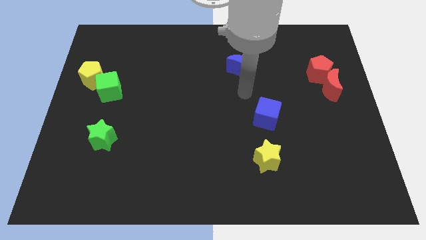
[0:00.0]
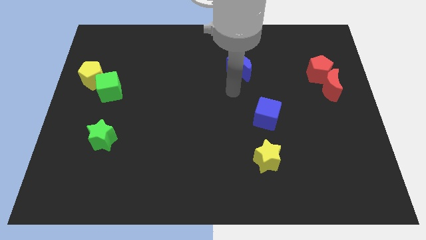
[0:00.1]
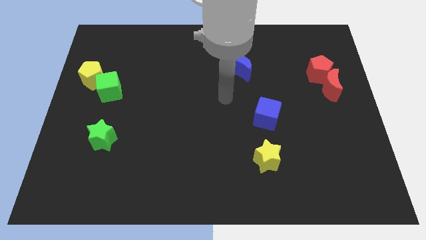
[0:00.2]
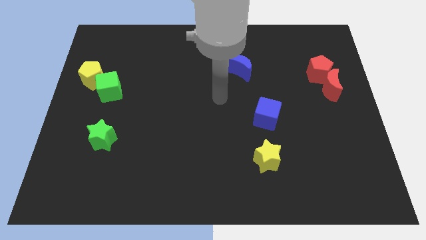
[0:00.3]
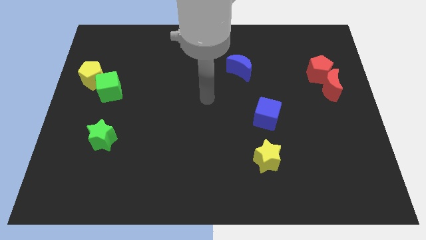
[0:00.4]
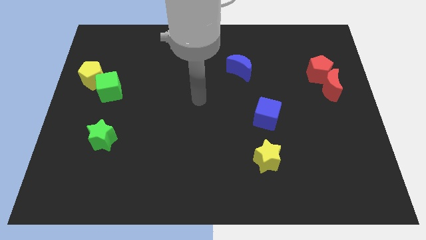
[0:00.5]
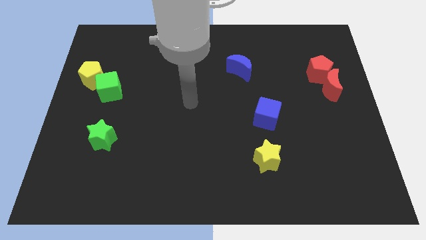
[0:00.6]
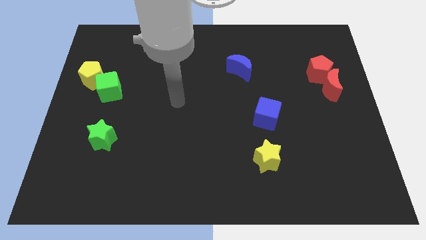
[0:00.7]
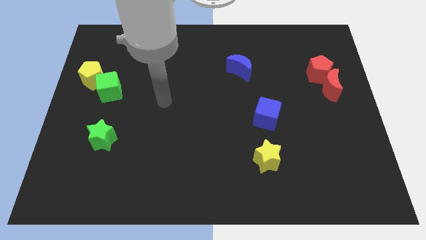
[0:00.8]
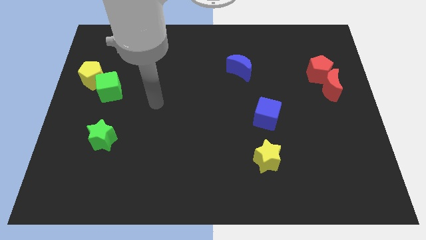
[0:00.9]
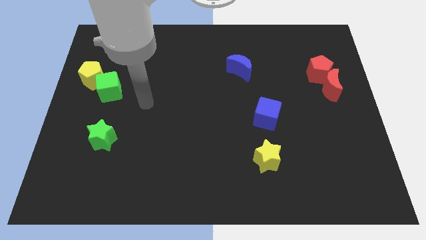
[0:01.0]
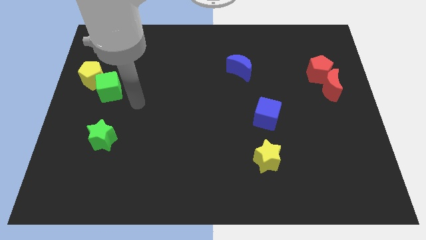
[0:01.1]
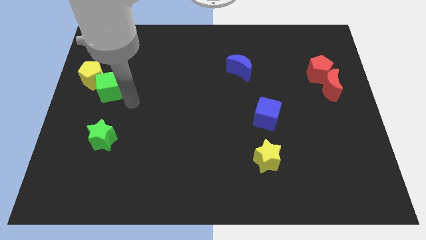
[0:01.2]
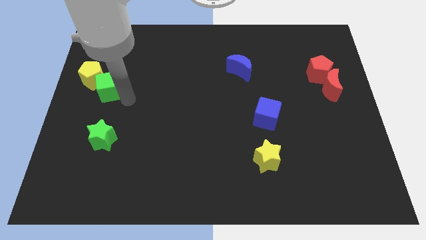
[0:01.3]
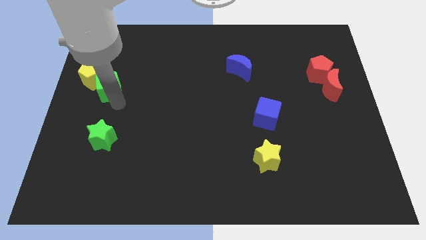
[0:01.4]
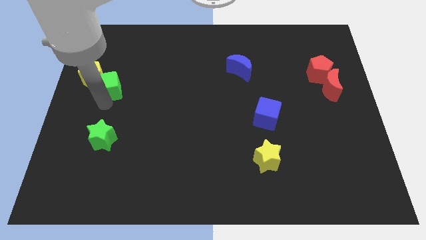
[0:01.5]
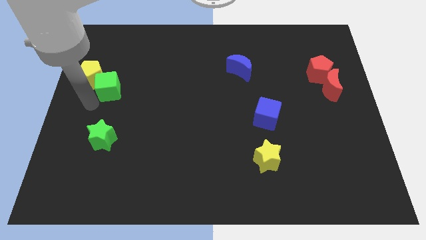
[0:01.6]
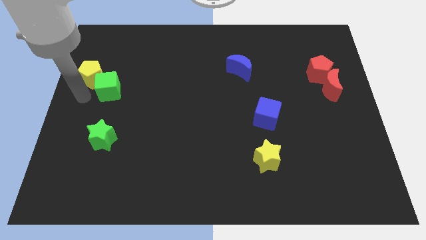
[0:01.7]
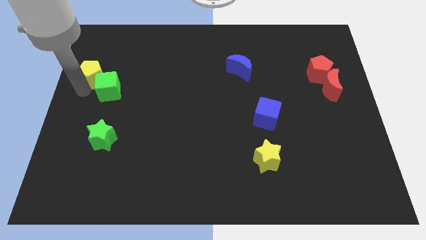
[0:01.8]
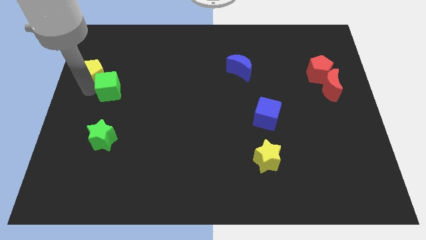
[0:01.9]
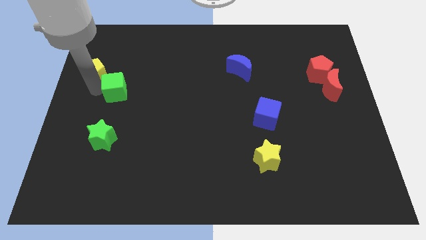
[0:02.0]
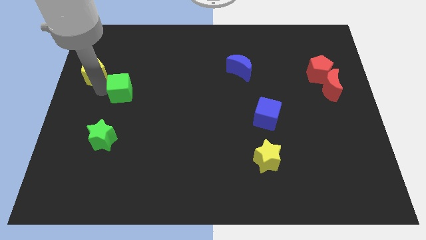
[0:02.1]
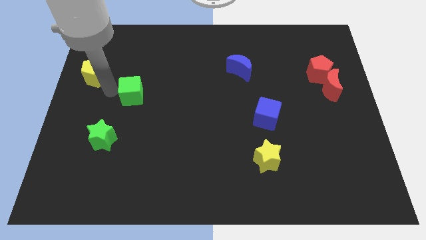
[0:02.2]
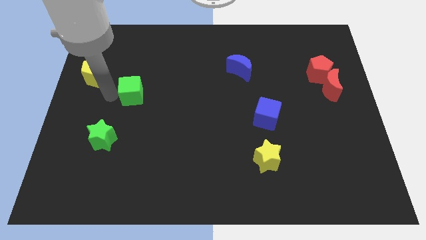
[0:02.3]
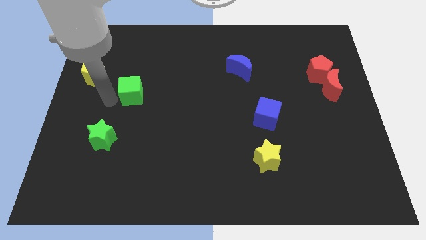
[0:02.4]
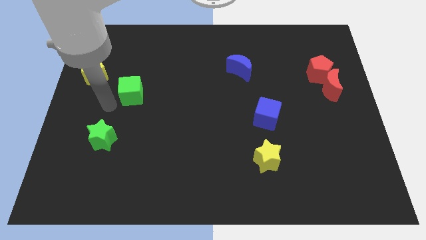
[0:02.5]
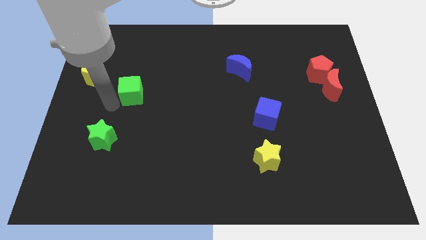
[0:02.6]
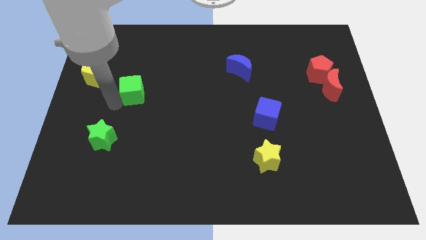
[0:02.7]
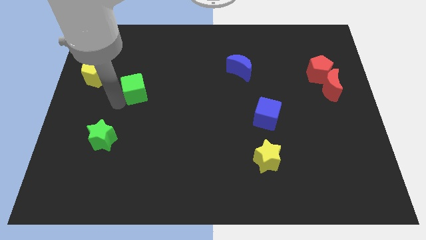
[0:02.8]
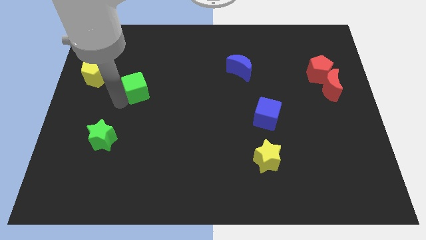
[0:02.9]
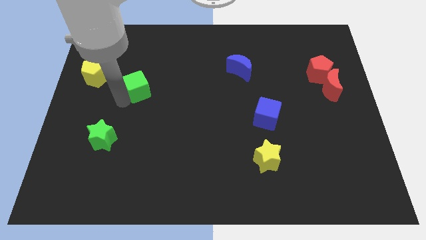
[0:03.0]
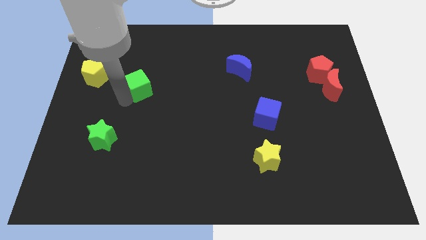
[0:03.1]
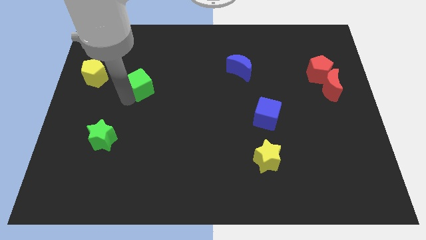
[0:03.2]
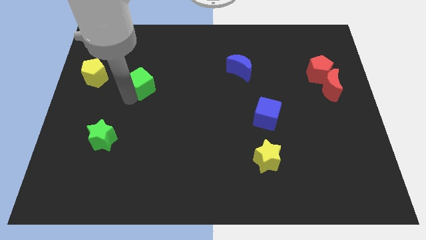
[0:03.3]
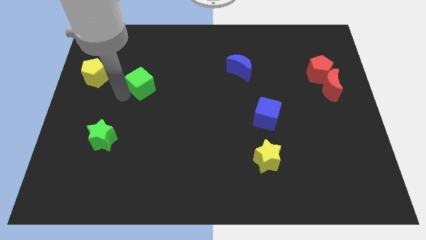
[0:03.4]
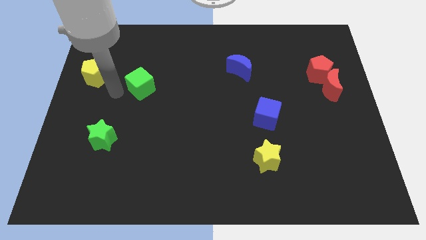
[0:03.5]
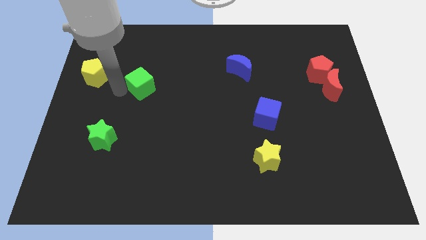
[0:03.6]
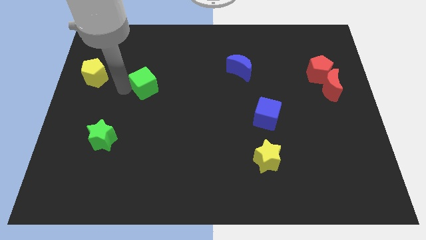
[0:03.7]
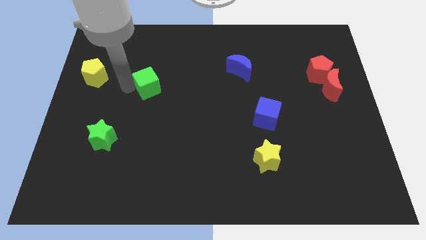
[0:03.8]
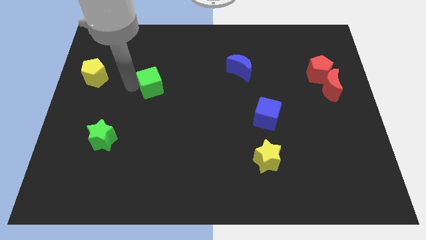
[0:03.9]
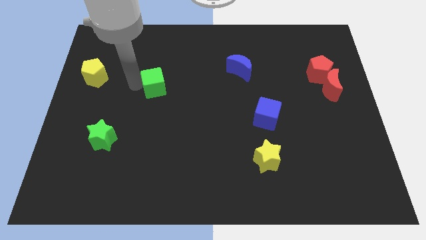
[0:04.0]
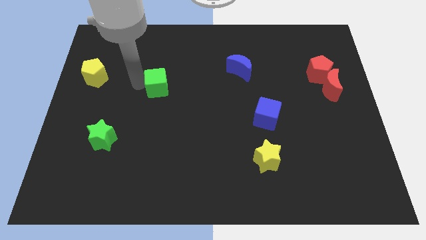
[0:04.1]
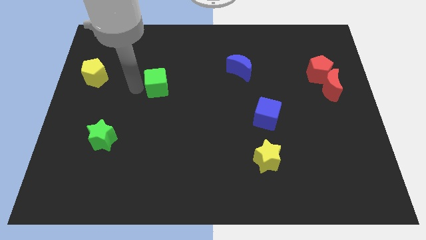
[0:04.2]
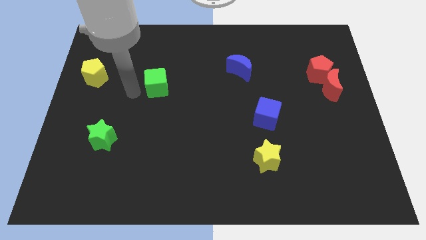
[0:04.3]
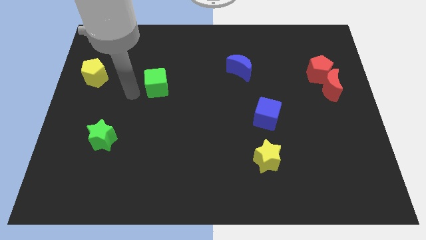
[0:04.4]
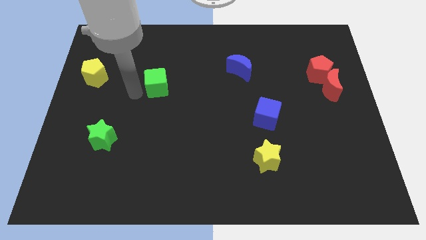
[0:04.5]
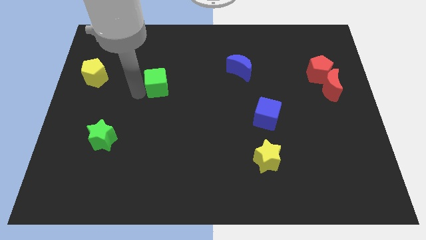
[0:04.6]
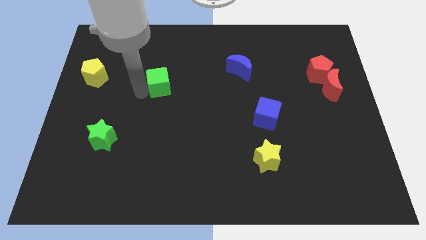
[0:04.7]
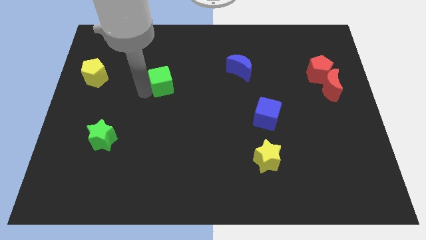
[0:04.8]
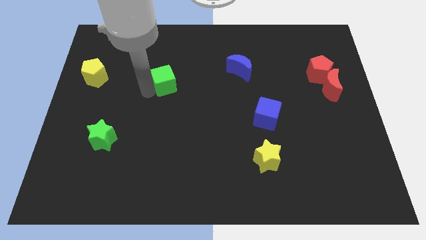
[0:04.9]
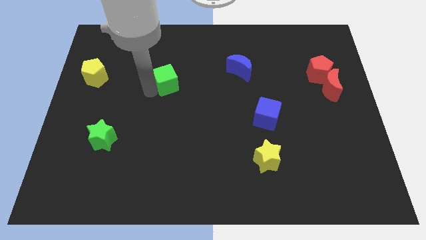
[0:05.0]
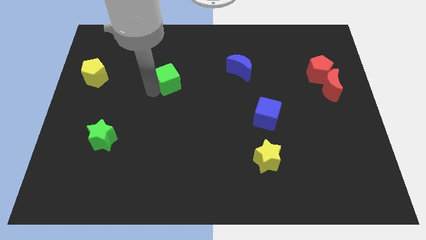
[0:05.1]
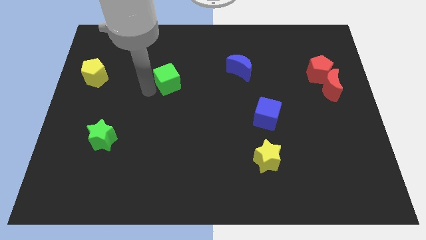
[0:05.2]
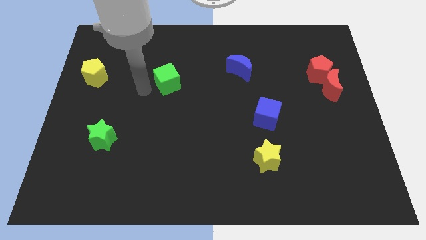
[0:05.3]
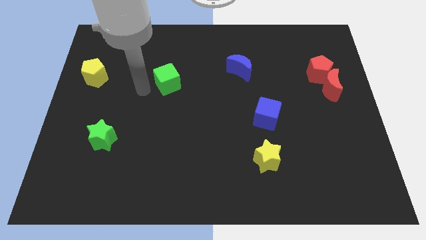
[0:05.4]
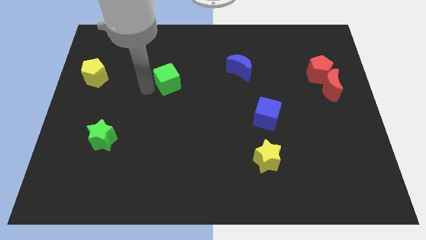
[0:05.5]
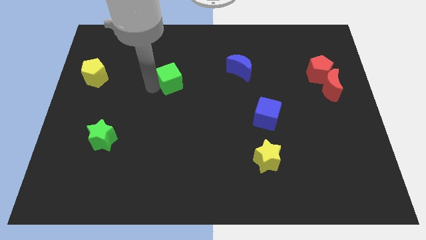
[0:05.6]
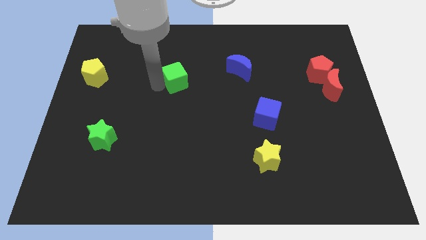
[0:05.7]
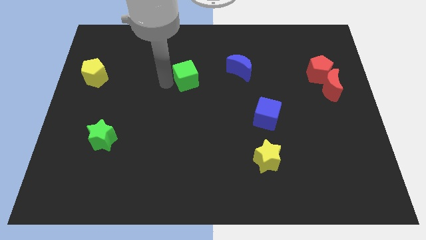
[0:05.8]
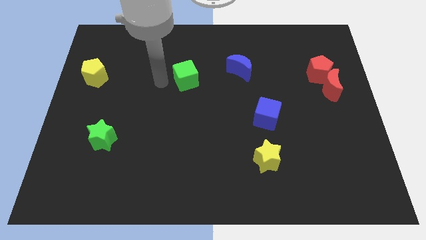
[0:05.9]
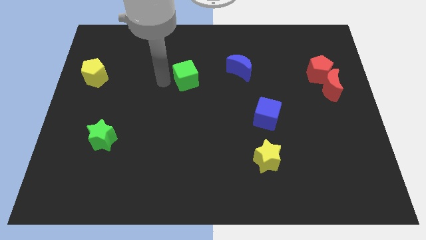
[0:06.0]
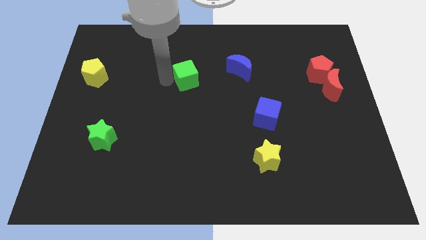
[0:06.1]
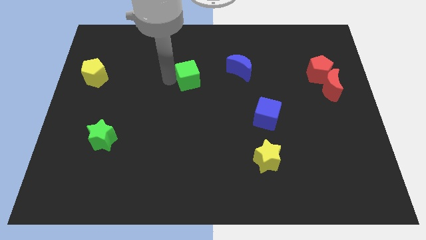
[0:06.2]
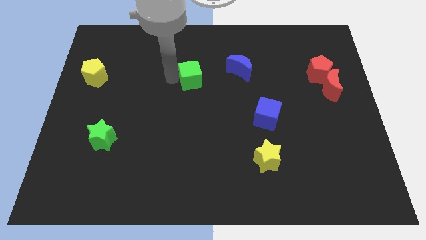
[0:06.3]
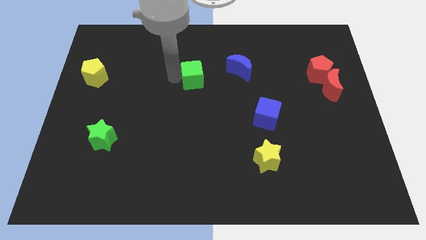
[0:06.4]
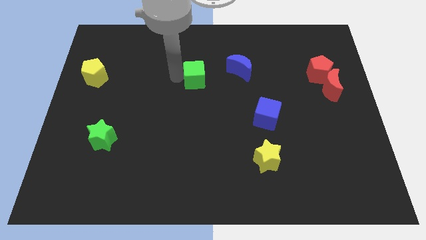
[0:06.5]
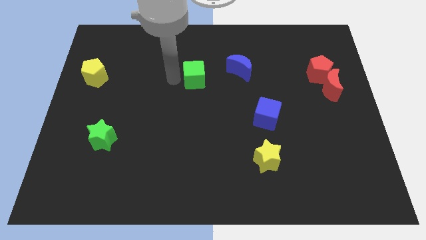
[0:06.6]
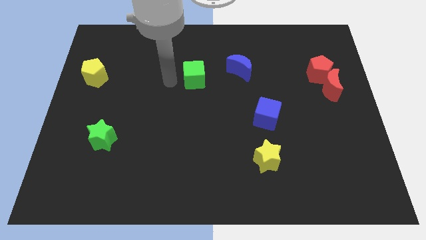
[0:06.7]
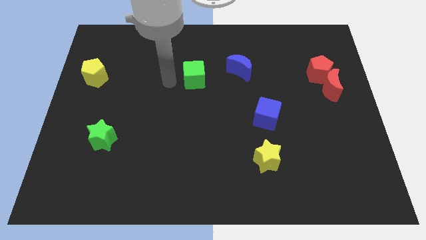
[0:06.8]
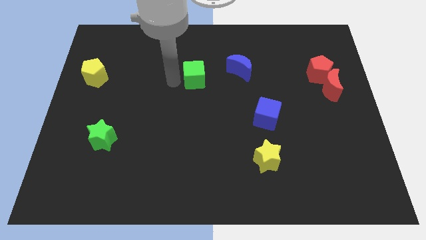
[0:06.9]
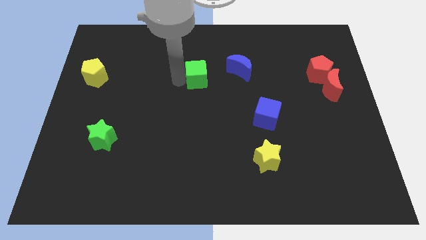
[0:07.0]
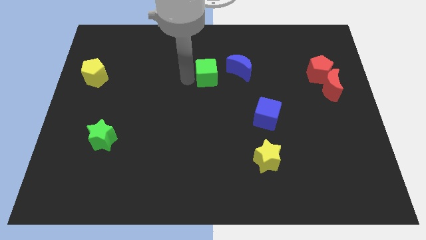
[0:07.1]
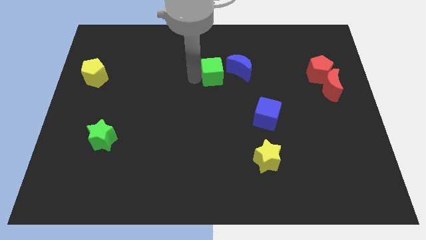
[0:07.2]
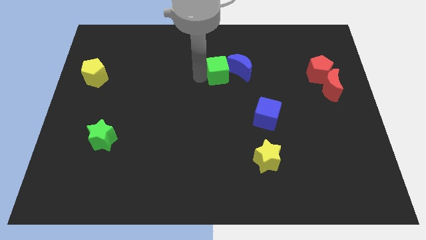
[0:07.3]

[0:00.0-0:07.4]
slide the green cube to the blue moon

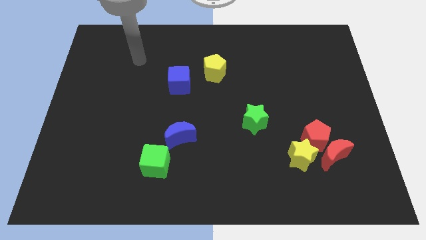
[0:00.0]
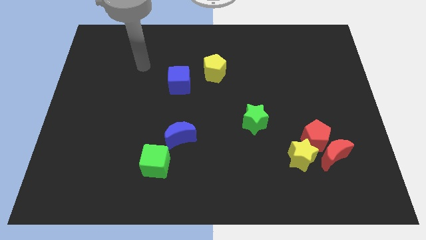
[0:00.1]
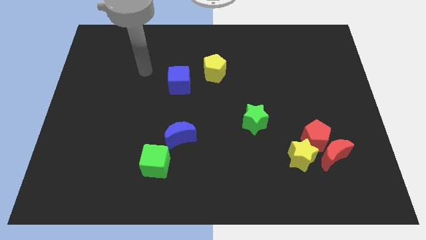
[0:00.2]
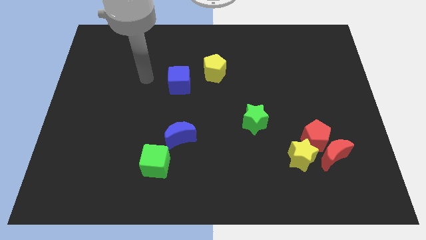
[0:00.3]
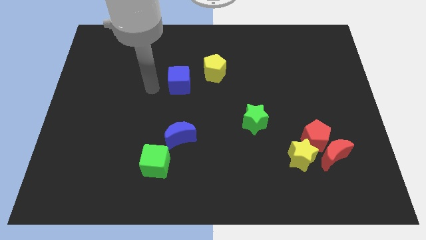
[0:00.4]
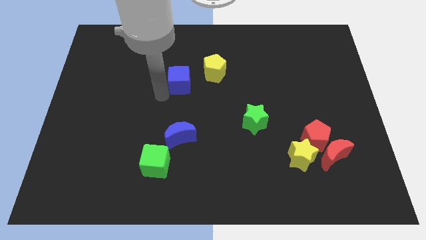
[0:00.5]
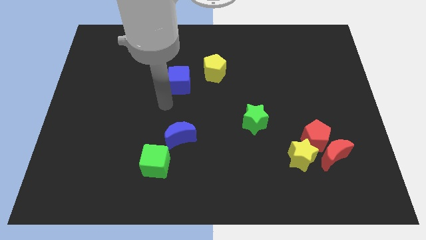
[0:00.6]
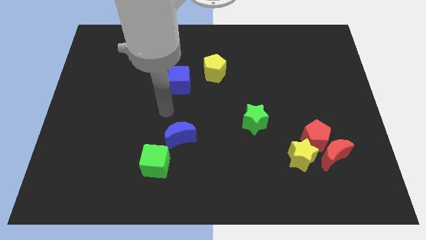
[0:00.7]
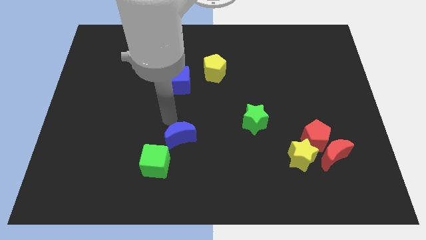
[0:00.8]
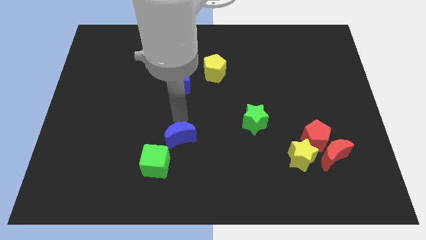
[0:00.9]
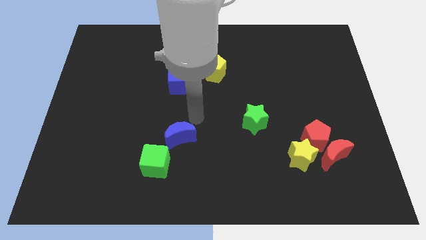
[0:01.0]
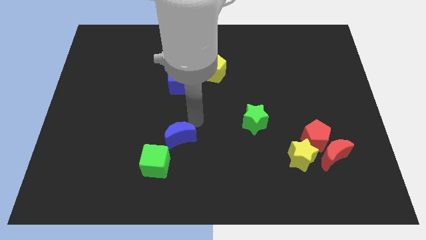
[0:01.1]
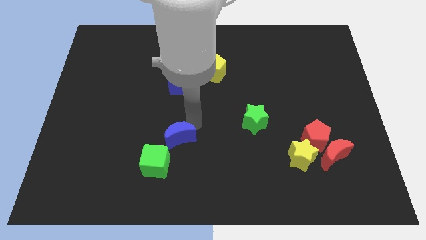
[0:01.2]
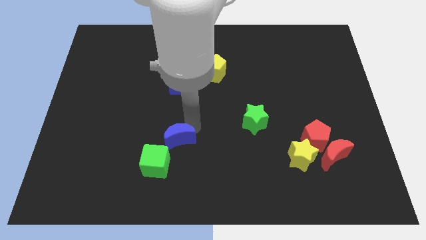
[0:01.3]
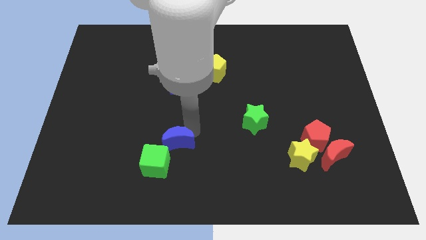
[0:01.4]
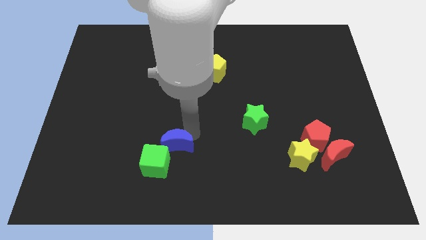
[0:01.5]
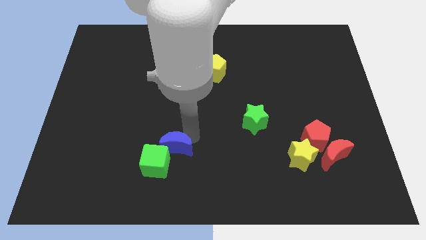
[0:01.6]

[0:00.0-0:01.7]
push the blue moon to the green cube
